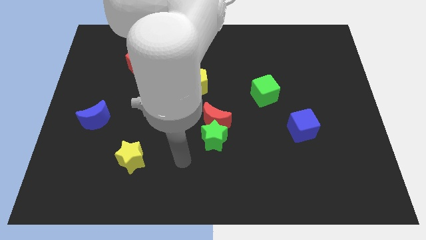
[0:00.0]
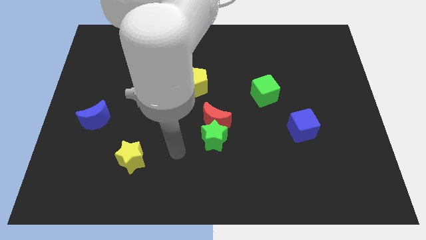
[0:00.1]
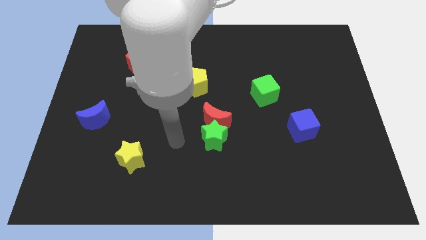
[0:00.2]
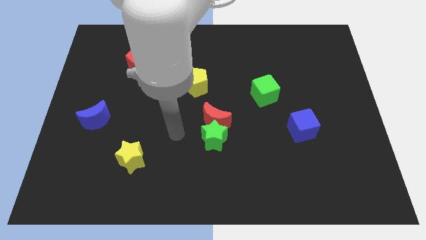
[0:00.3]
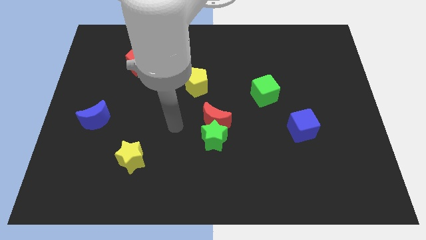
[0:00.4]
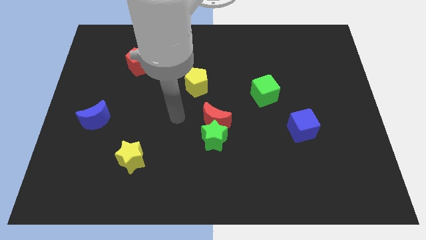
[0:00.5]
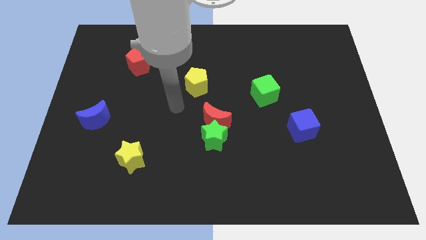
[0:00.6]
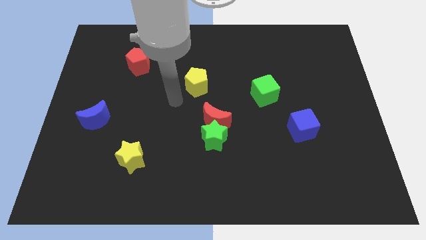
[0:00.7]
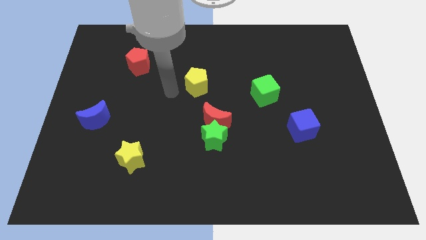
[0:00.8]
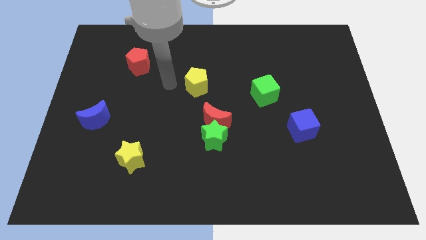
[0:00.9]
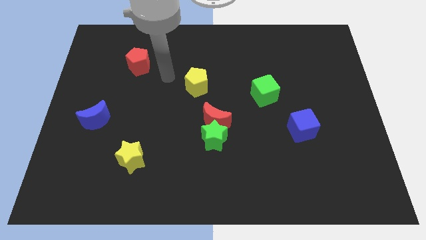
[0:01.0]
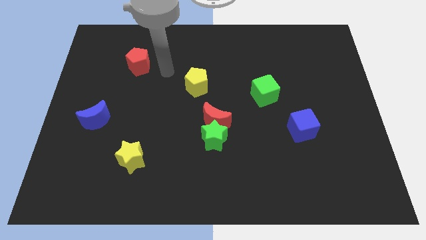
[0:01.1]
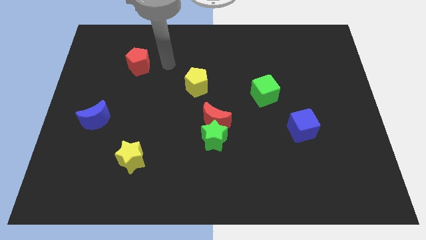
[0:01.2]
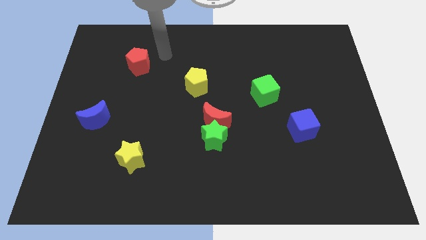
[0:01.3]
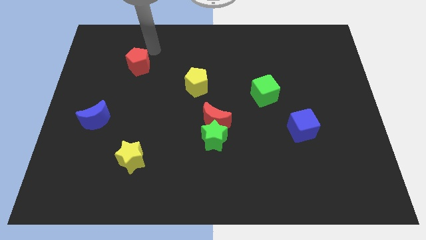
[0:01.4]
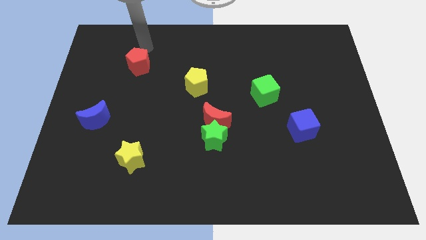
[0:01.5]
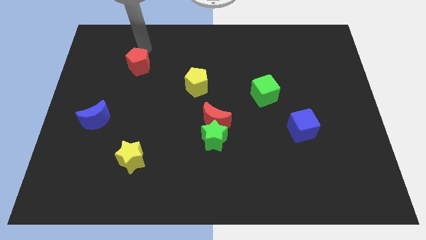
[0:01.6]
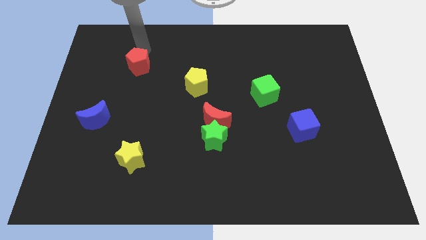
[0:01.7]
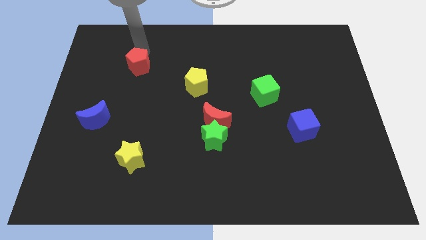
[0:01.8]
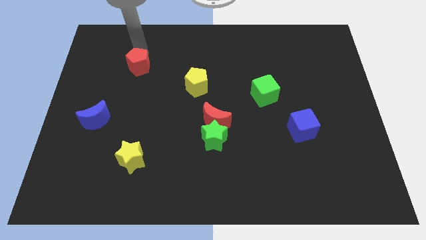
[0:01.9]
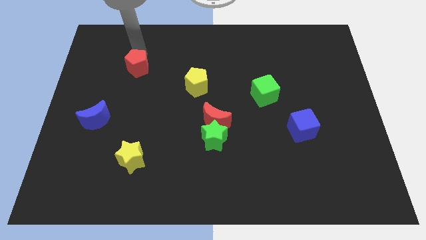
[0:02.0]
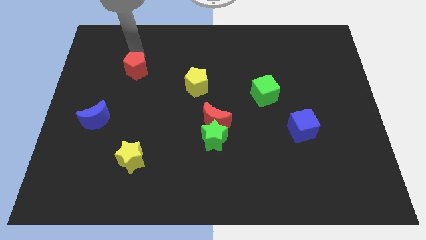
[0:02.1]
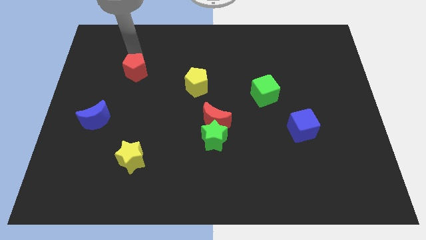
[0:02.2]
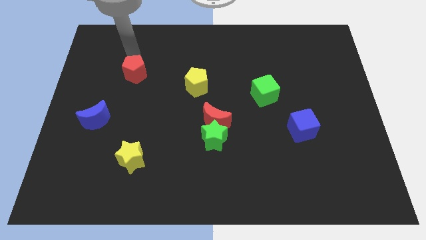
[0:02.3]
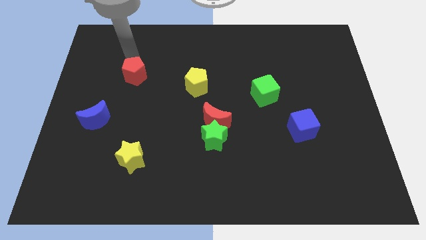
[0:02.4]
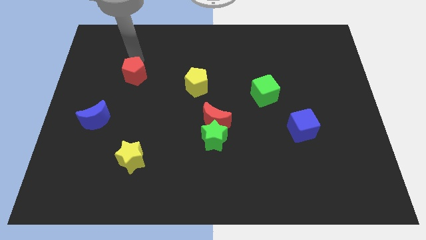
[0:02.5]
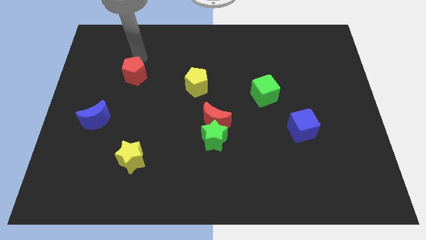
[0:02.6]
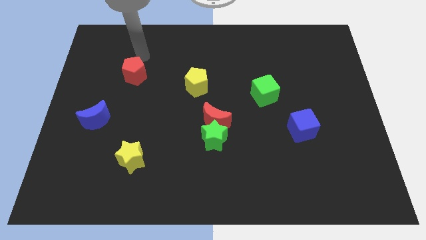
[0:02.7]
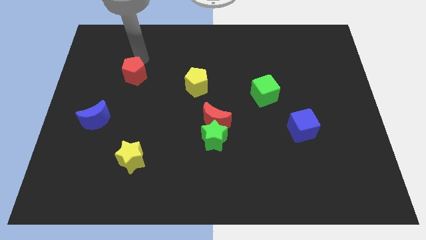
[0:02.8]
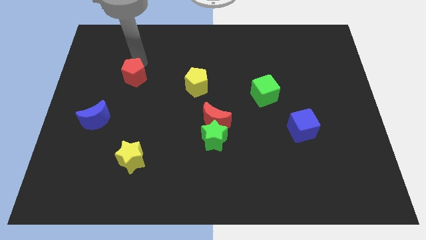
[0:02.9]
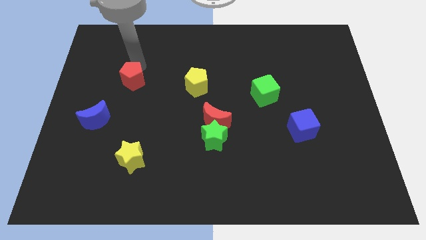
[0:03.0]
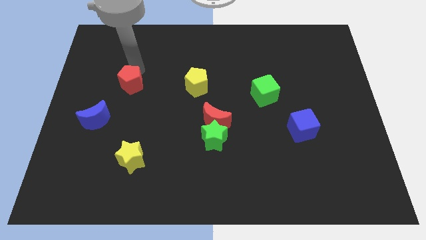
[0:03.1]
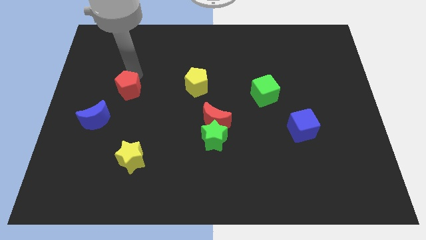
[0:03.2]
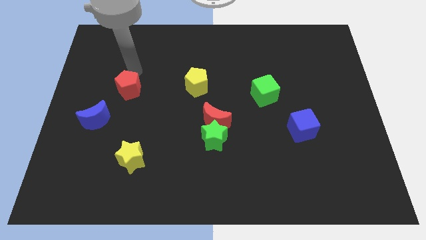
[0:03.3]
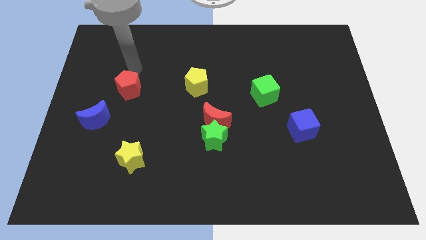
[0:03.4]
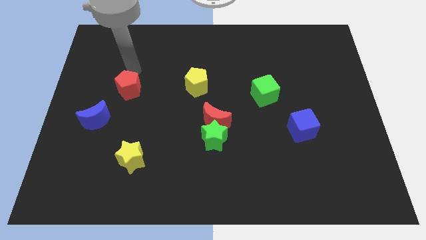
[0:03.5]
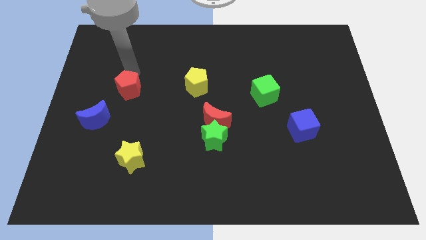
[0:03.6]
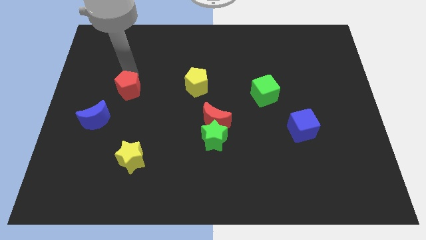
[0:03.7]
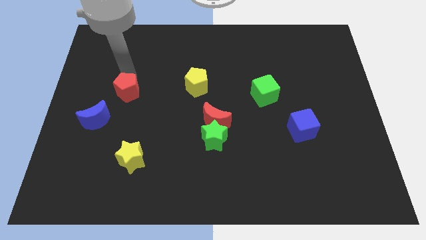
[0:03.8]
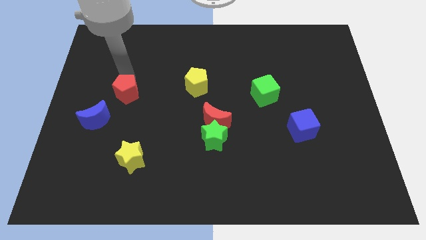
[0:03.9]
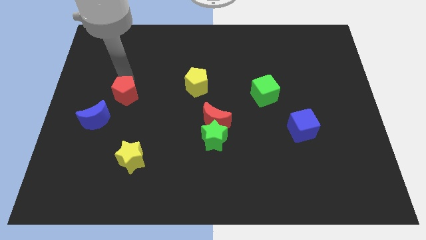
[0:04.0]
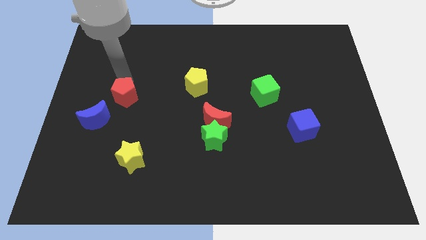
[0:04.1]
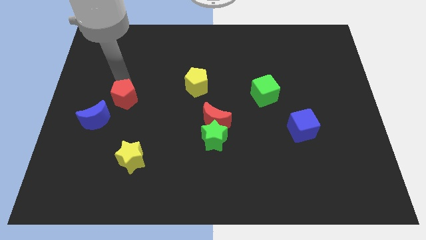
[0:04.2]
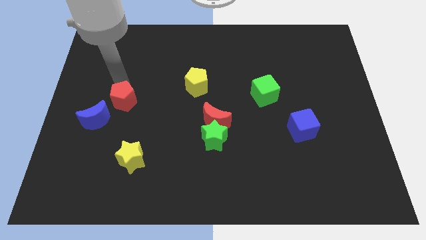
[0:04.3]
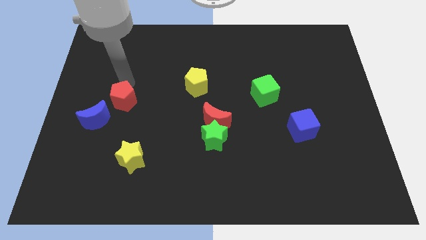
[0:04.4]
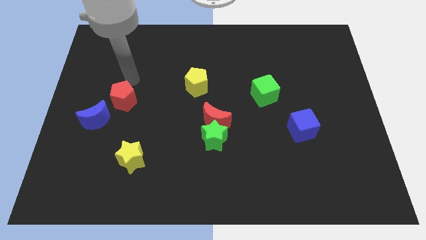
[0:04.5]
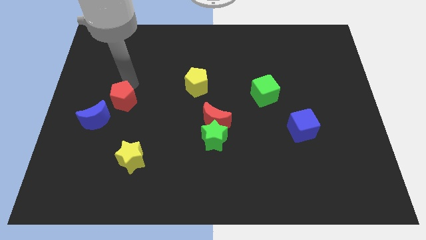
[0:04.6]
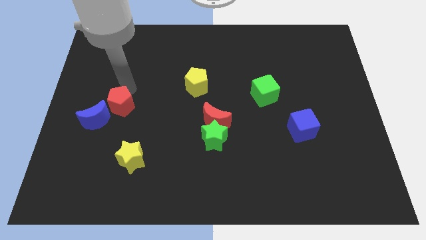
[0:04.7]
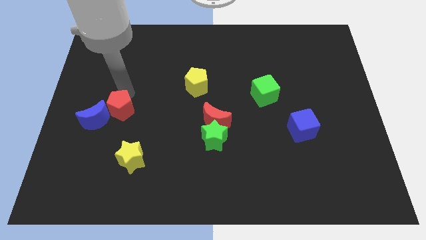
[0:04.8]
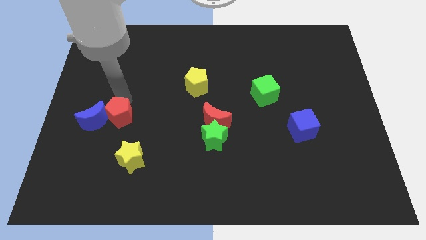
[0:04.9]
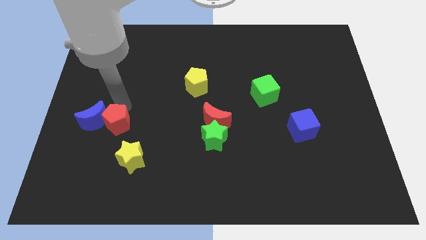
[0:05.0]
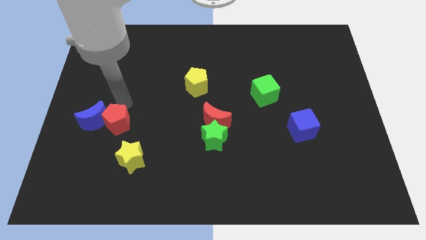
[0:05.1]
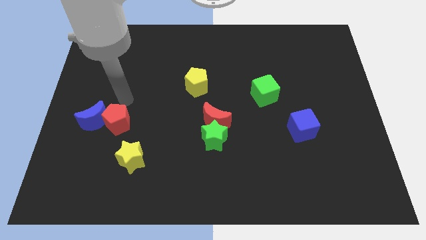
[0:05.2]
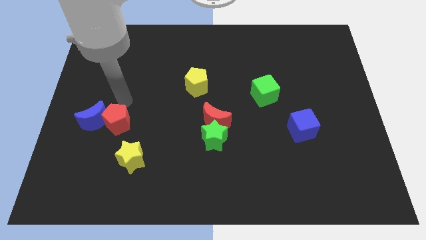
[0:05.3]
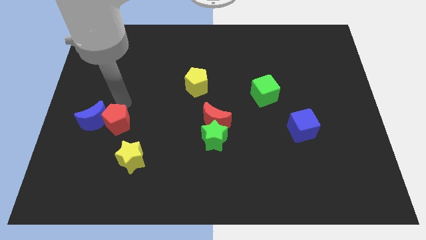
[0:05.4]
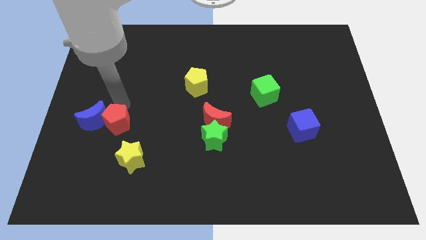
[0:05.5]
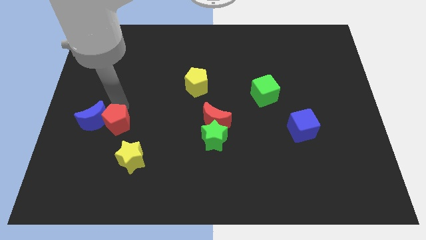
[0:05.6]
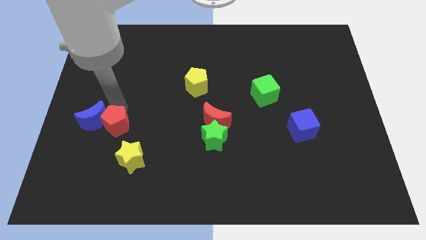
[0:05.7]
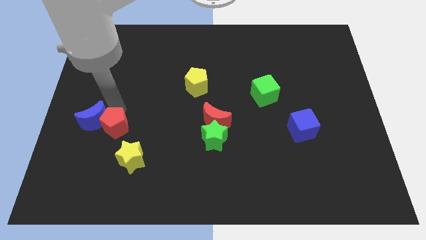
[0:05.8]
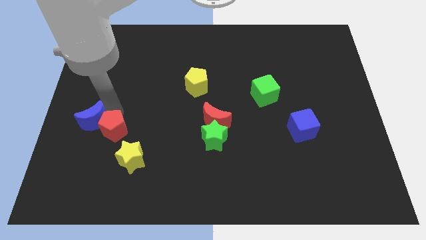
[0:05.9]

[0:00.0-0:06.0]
push the red pentagon downwards

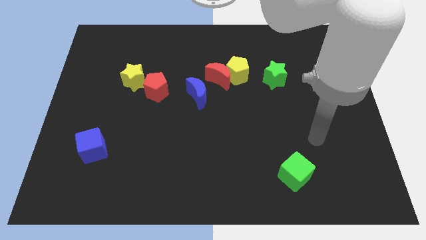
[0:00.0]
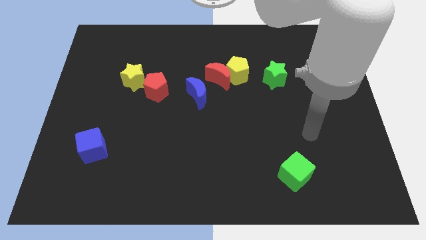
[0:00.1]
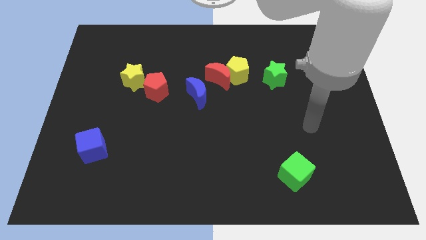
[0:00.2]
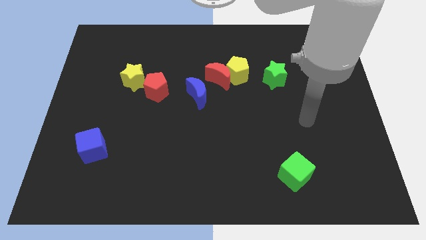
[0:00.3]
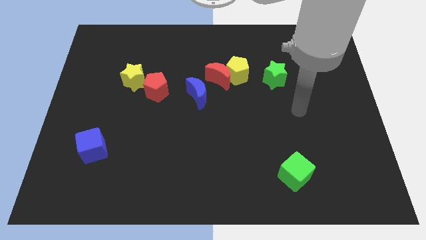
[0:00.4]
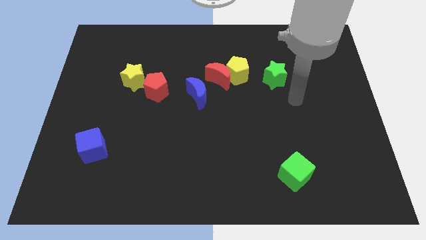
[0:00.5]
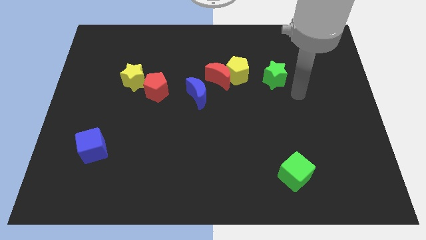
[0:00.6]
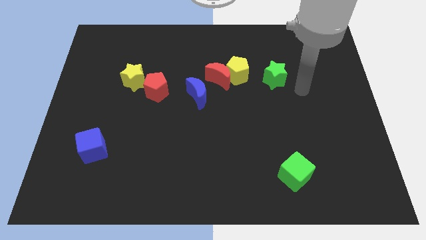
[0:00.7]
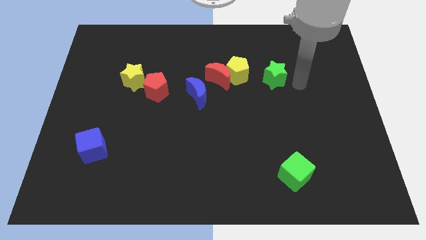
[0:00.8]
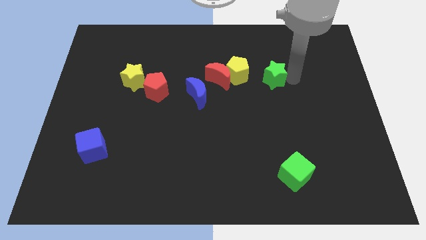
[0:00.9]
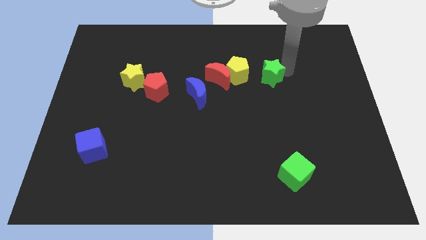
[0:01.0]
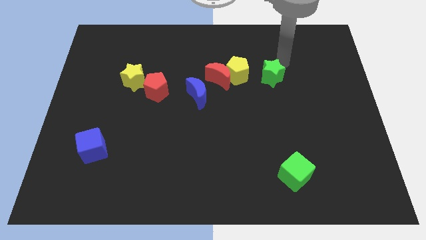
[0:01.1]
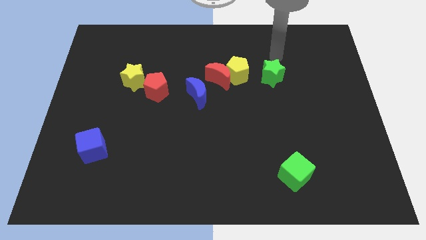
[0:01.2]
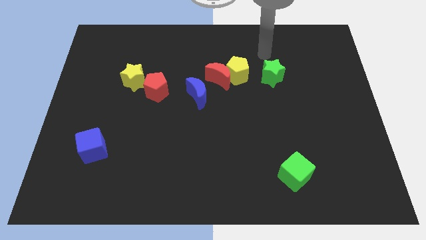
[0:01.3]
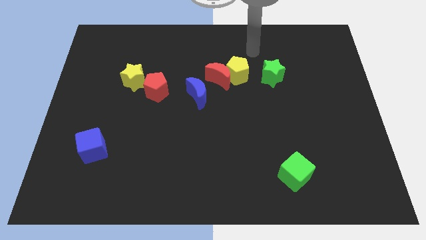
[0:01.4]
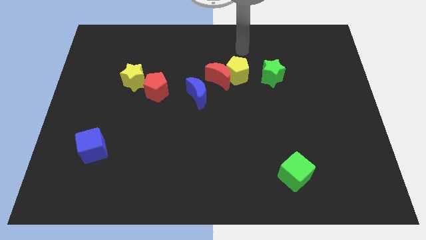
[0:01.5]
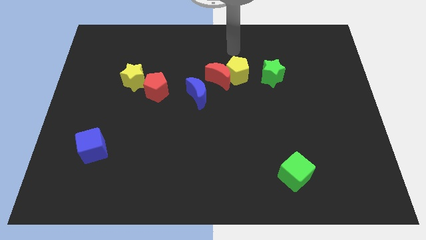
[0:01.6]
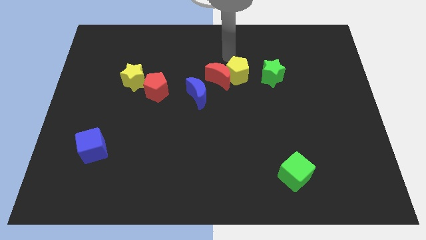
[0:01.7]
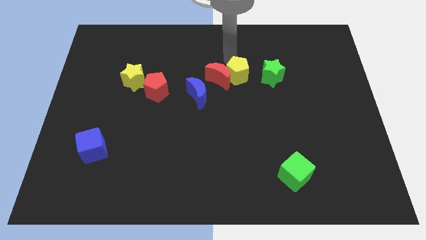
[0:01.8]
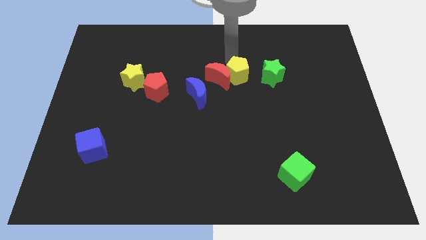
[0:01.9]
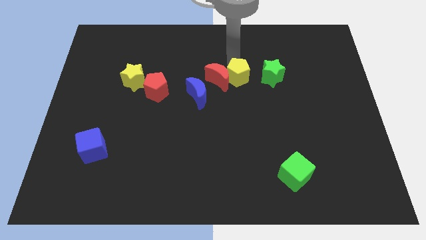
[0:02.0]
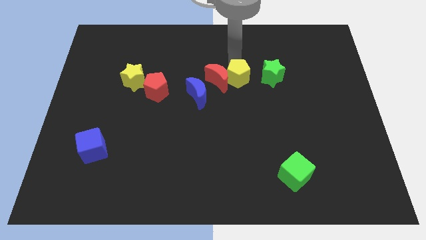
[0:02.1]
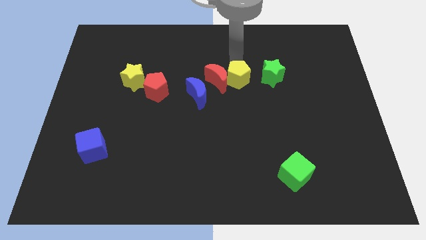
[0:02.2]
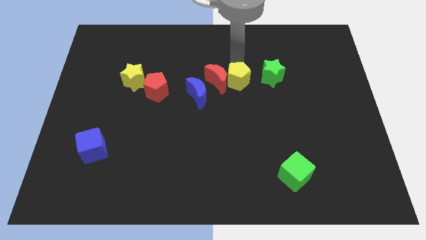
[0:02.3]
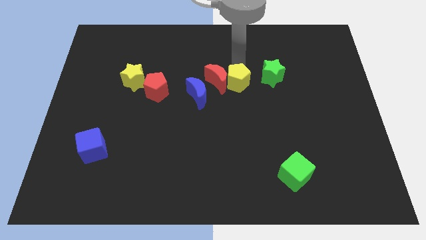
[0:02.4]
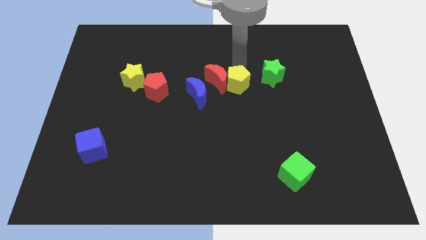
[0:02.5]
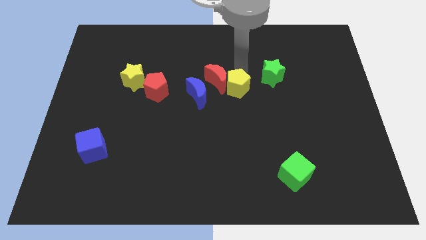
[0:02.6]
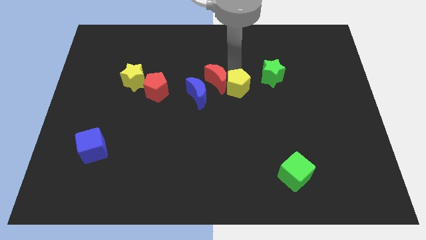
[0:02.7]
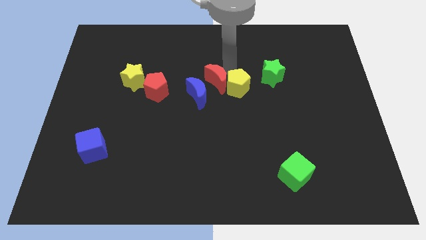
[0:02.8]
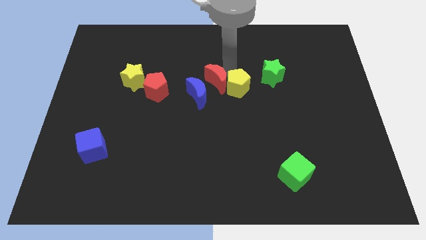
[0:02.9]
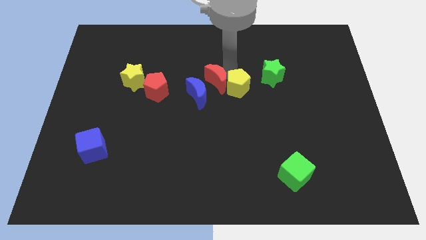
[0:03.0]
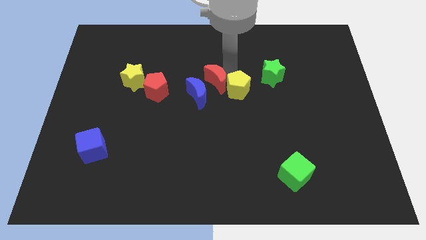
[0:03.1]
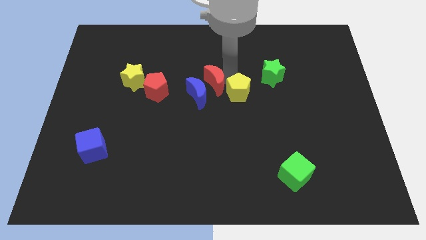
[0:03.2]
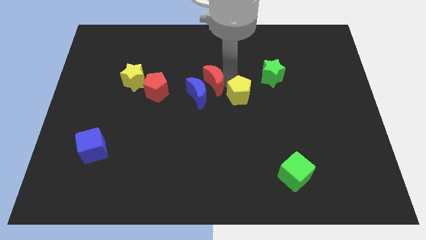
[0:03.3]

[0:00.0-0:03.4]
slightly push the yellow pentagon down
